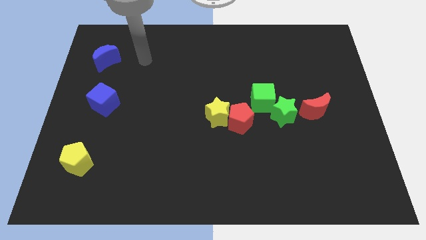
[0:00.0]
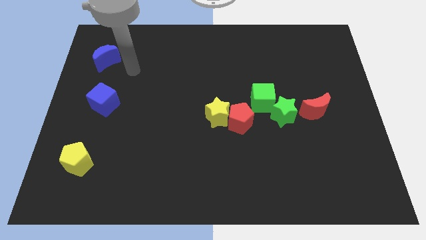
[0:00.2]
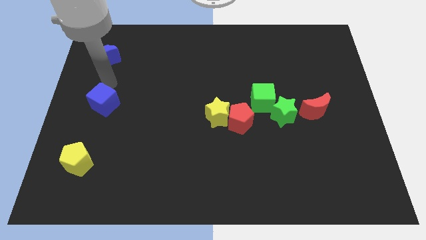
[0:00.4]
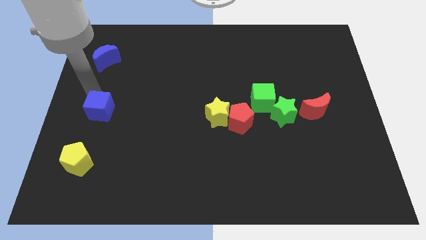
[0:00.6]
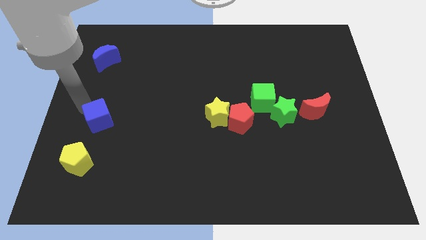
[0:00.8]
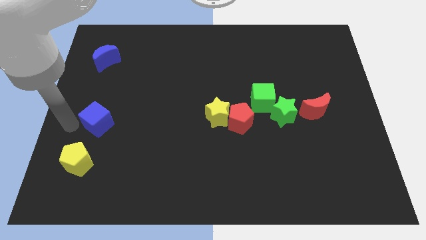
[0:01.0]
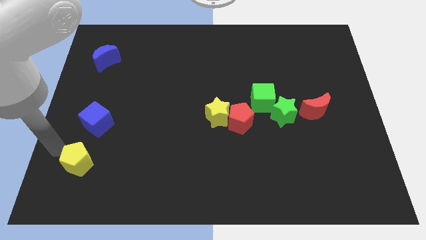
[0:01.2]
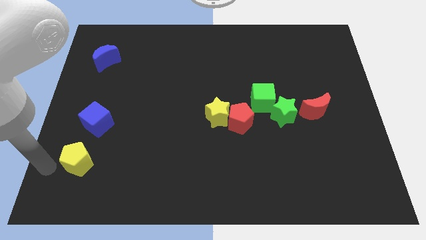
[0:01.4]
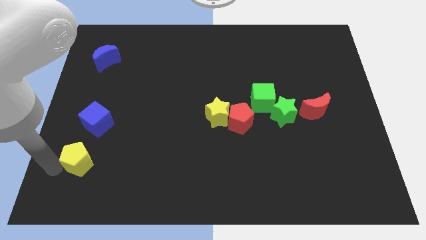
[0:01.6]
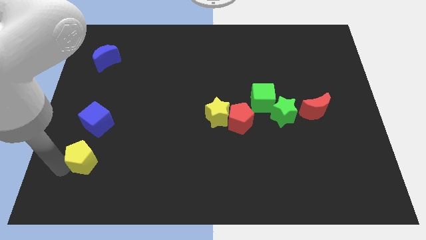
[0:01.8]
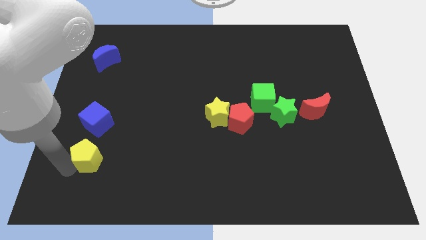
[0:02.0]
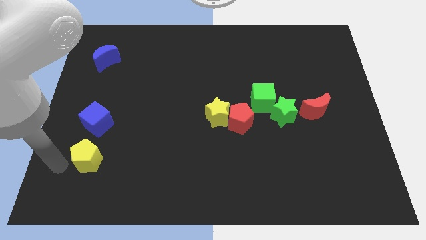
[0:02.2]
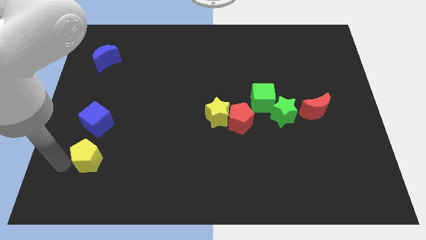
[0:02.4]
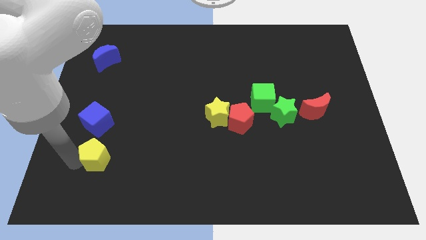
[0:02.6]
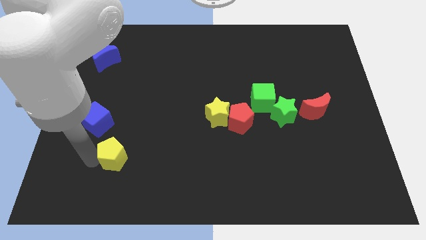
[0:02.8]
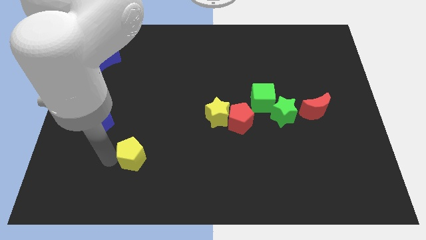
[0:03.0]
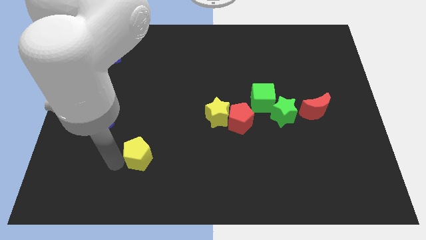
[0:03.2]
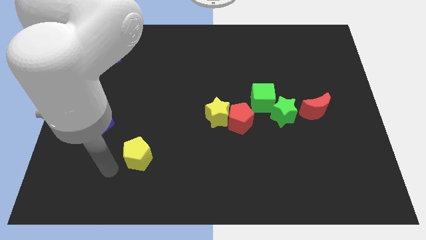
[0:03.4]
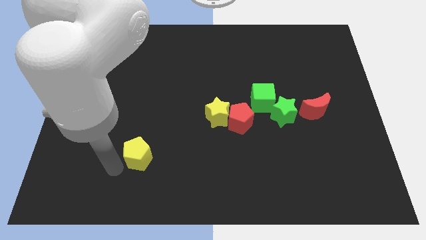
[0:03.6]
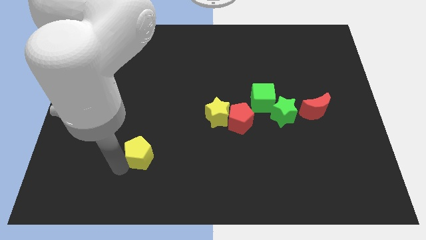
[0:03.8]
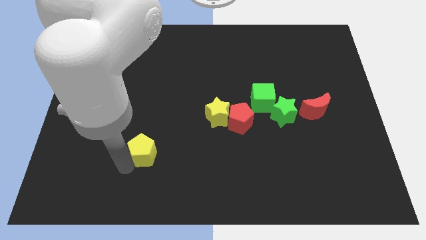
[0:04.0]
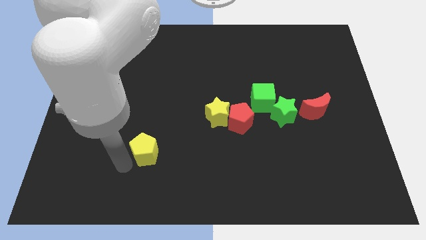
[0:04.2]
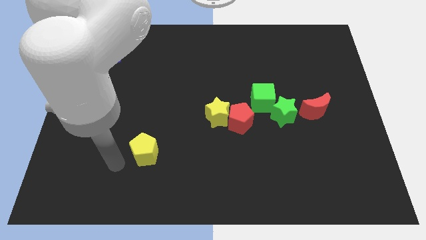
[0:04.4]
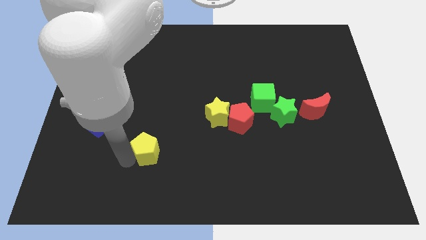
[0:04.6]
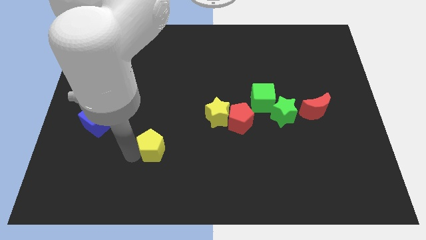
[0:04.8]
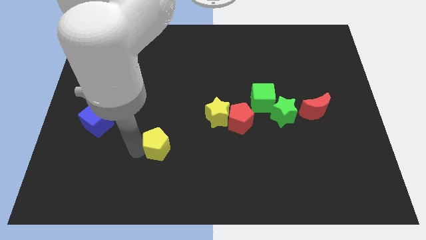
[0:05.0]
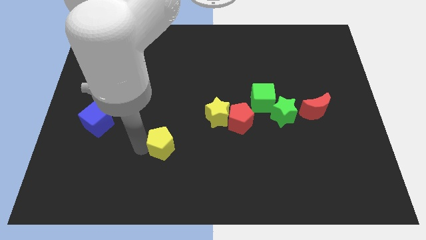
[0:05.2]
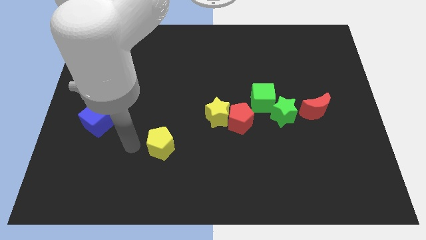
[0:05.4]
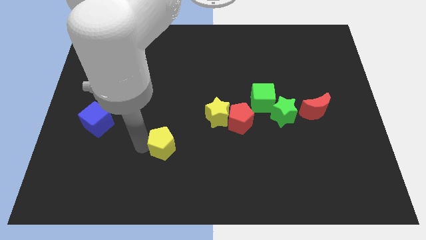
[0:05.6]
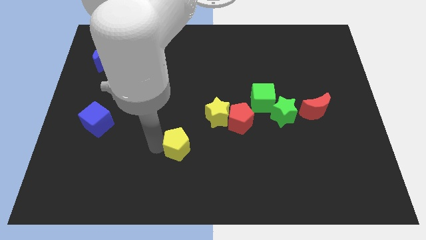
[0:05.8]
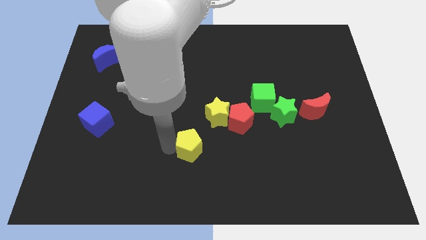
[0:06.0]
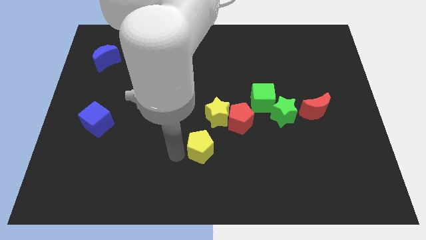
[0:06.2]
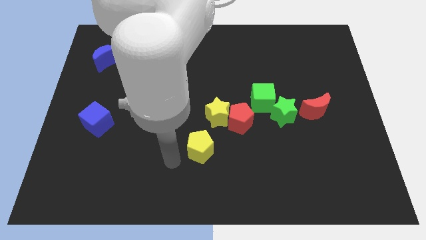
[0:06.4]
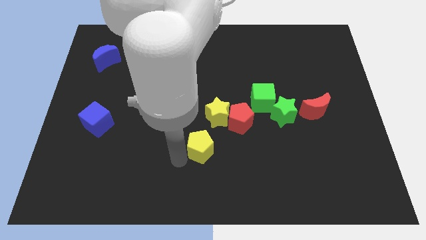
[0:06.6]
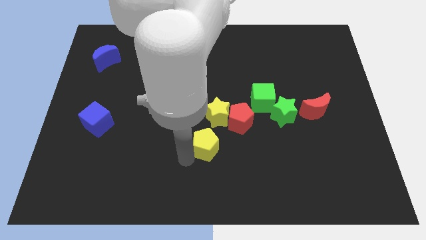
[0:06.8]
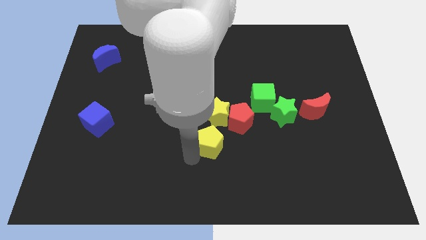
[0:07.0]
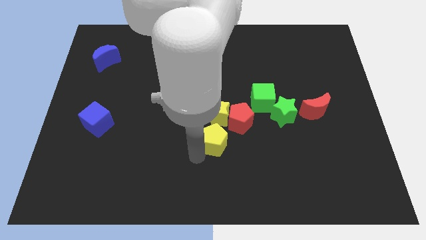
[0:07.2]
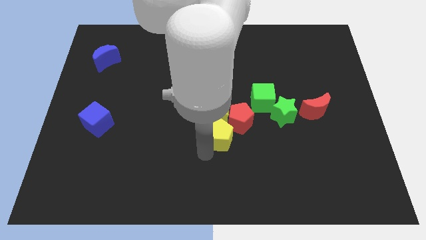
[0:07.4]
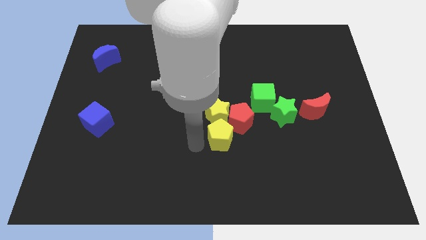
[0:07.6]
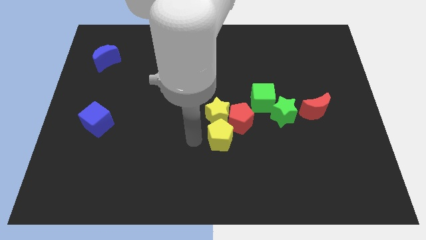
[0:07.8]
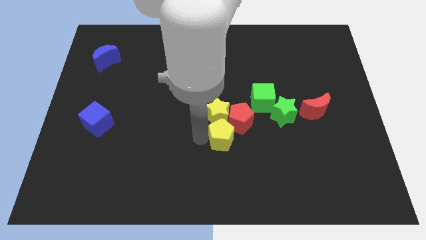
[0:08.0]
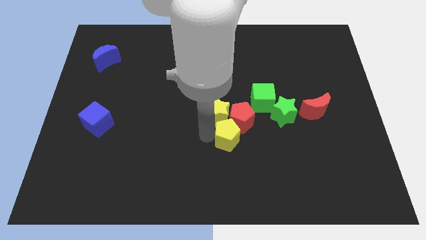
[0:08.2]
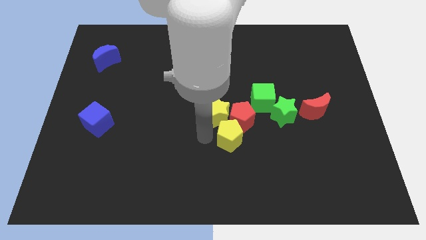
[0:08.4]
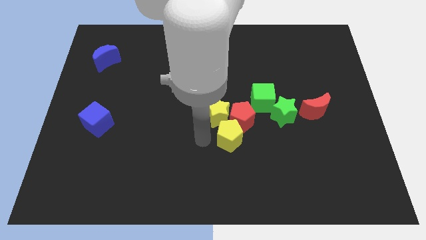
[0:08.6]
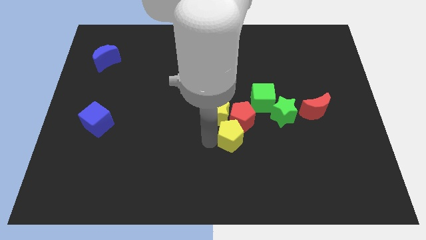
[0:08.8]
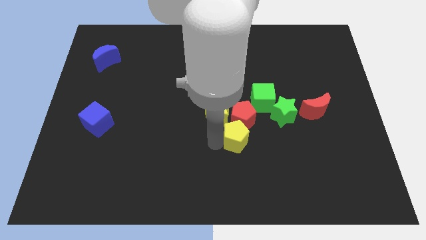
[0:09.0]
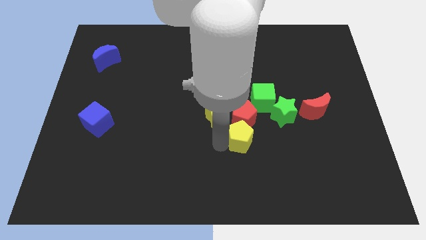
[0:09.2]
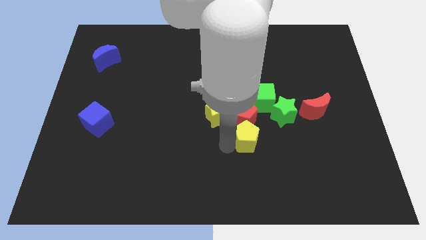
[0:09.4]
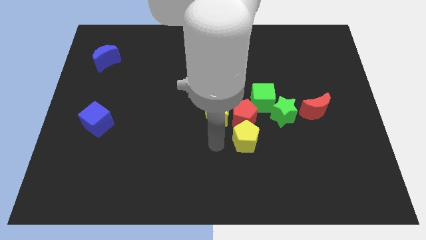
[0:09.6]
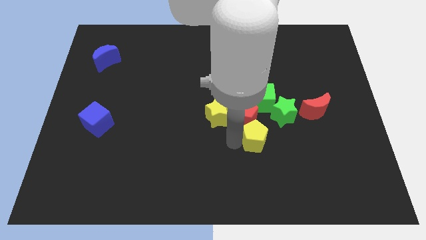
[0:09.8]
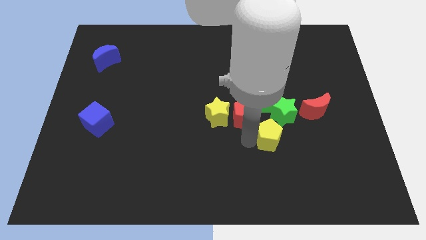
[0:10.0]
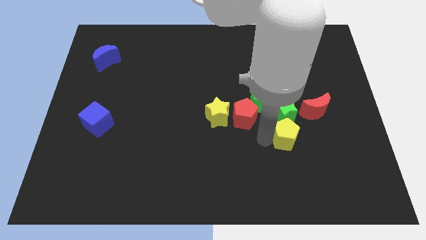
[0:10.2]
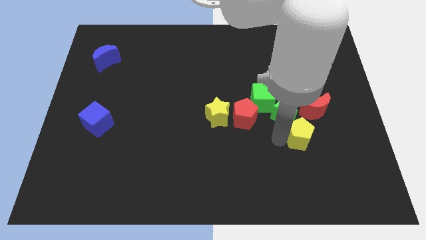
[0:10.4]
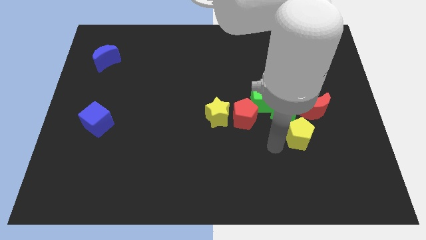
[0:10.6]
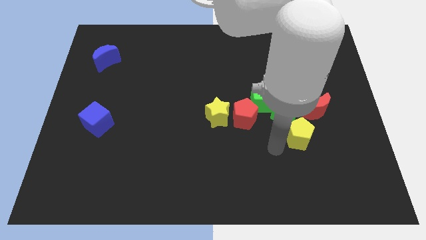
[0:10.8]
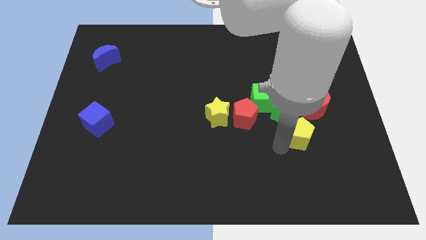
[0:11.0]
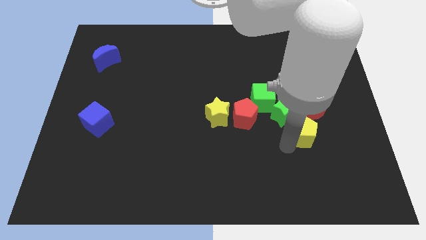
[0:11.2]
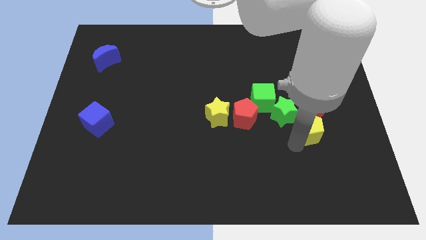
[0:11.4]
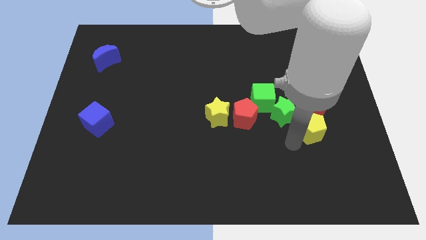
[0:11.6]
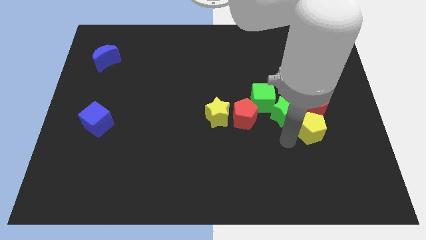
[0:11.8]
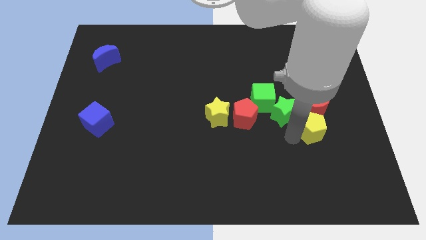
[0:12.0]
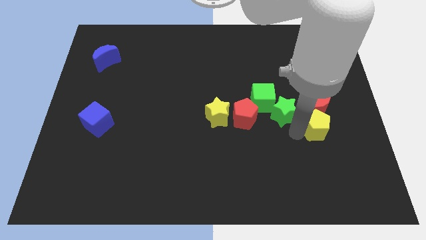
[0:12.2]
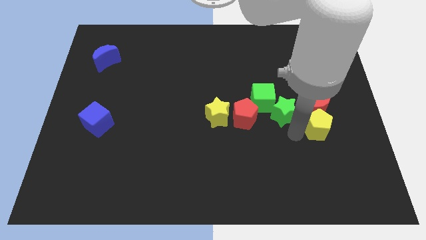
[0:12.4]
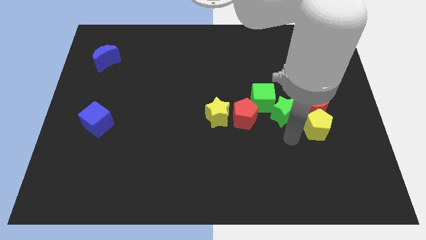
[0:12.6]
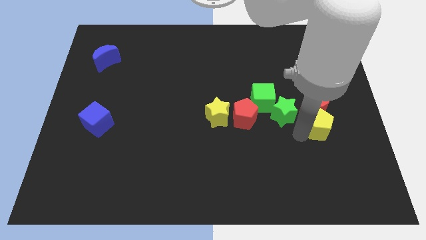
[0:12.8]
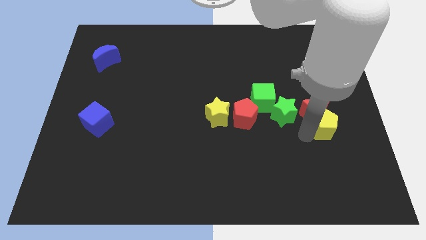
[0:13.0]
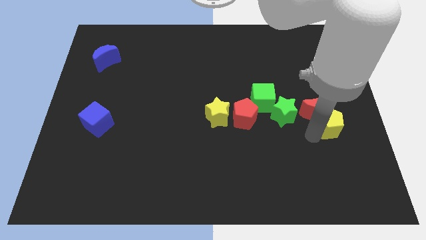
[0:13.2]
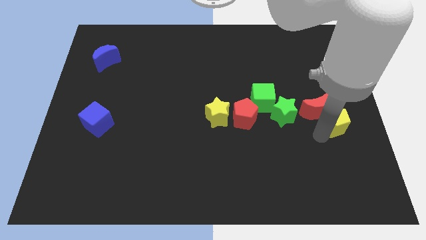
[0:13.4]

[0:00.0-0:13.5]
slide the yellow pentagon to the right side
